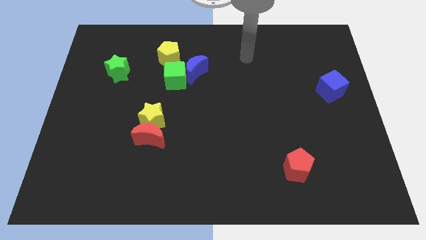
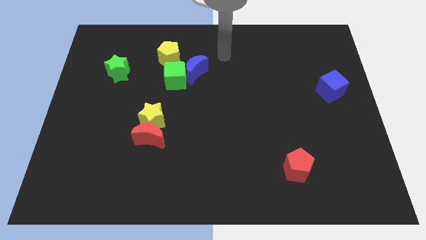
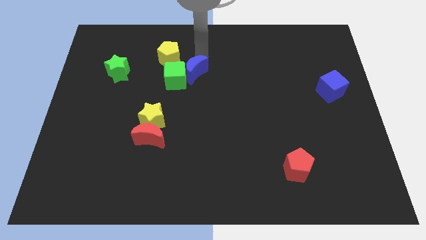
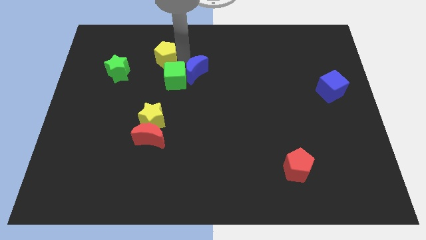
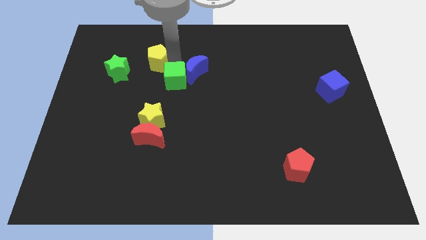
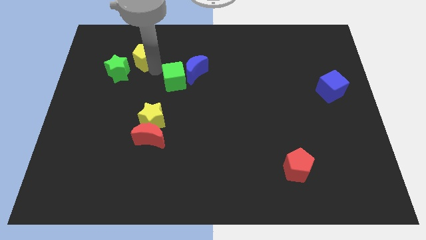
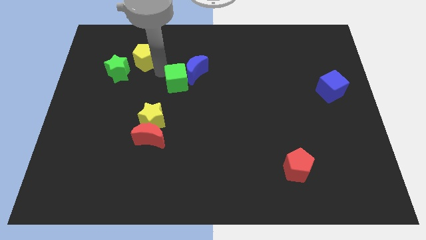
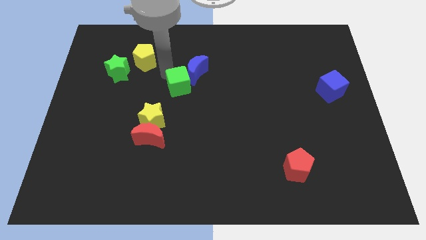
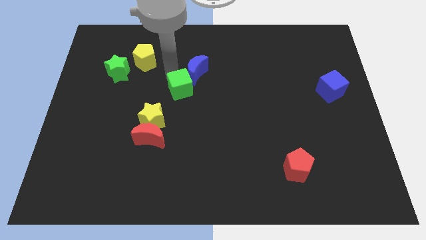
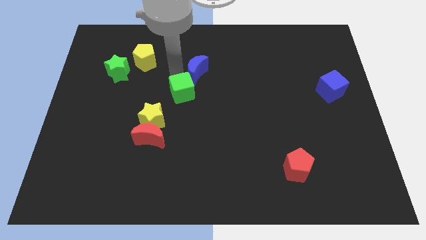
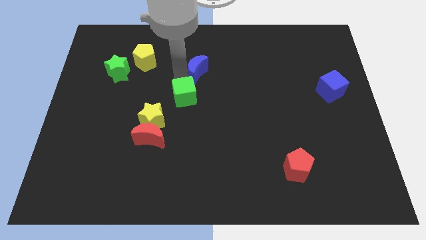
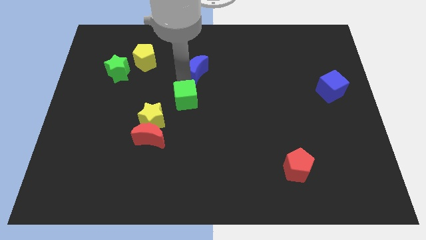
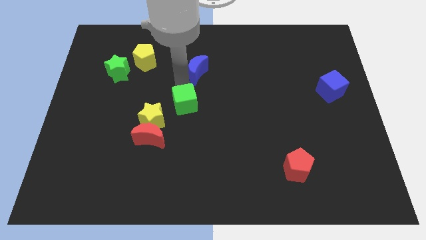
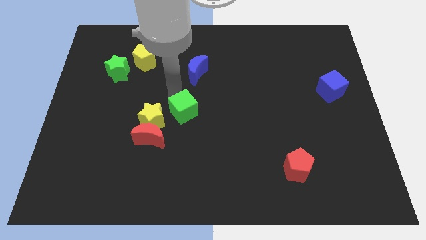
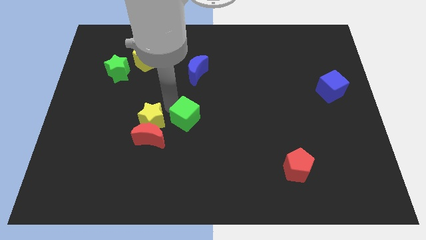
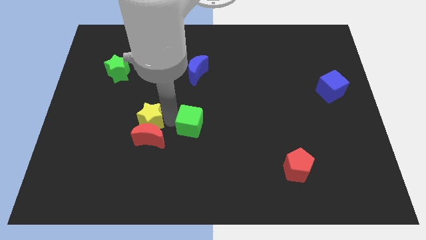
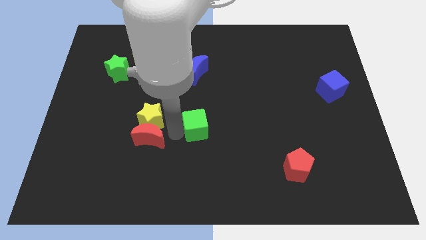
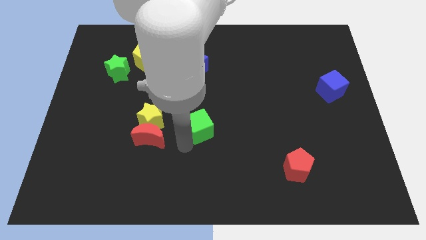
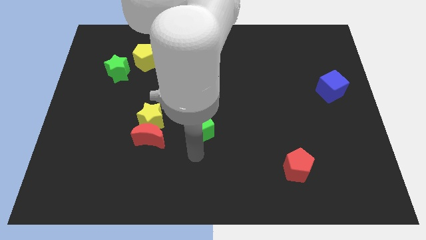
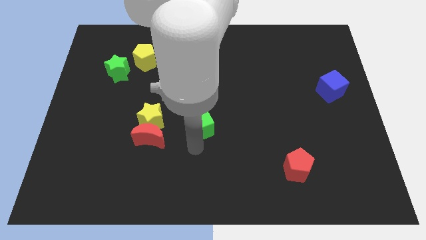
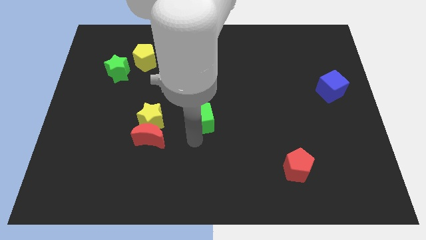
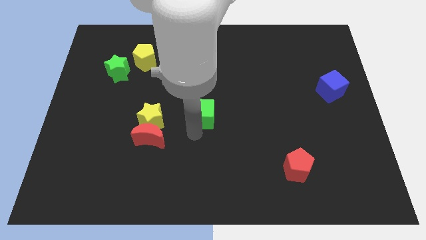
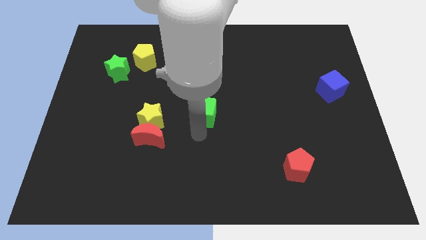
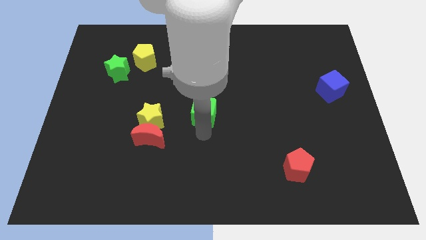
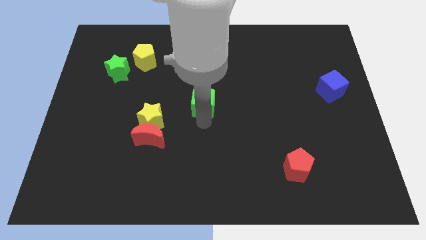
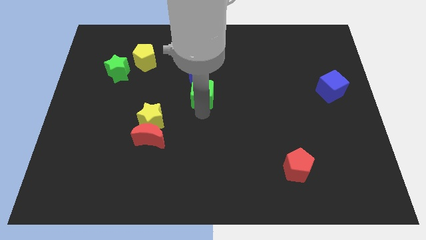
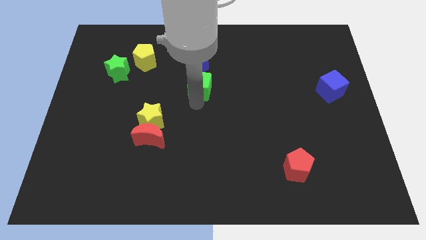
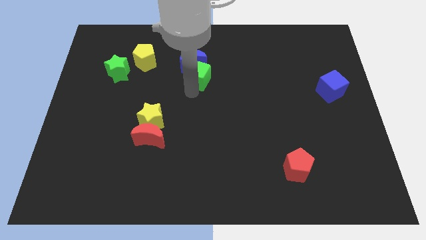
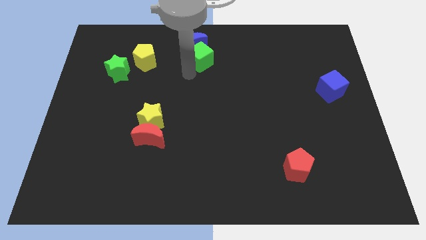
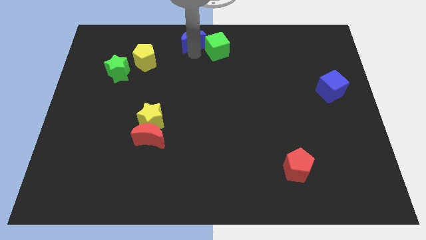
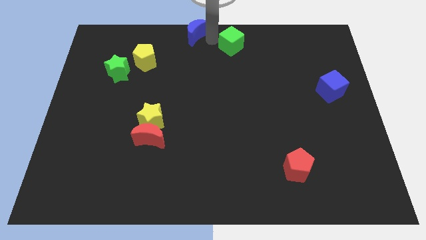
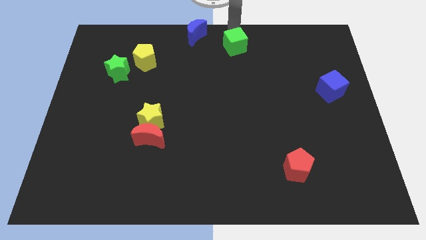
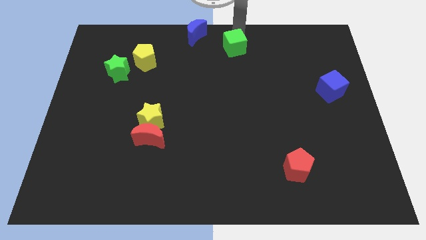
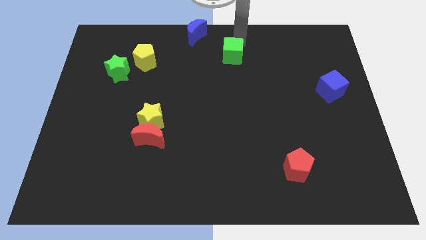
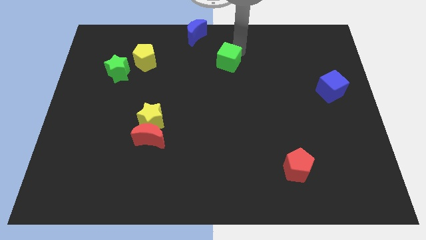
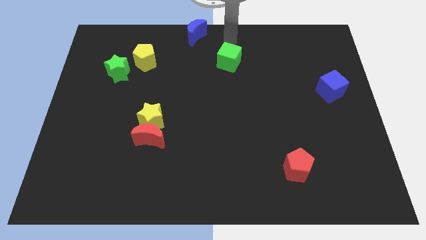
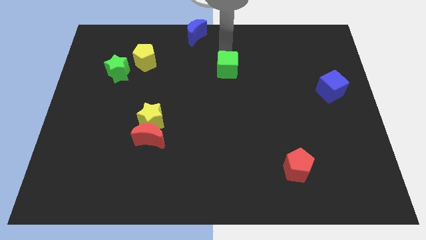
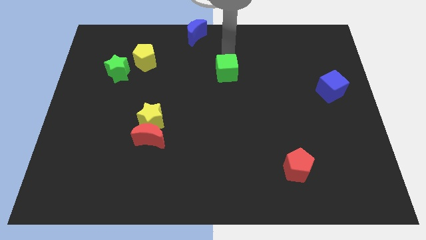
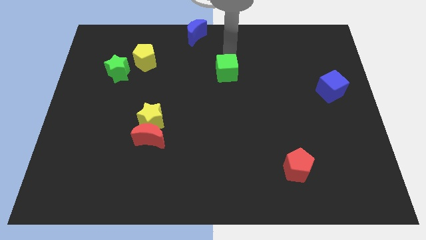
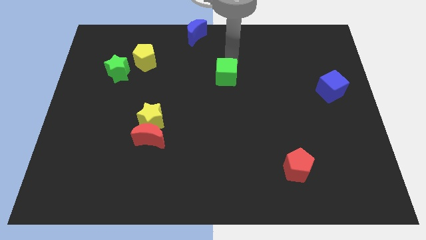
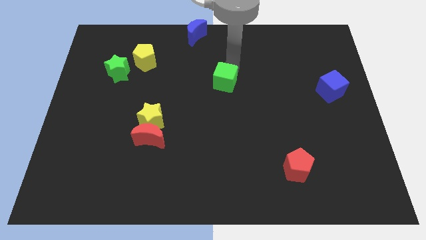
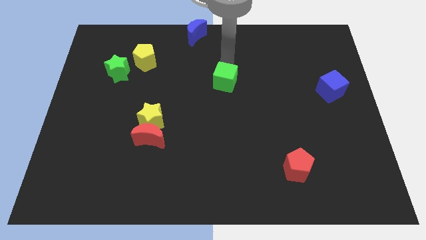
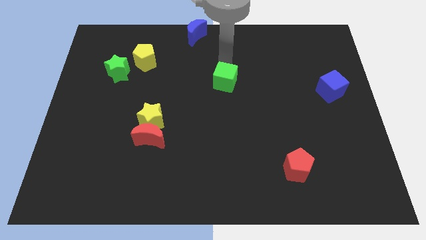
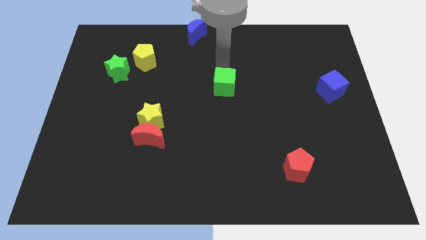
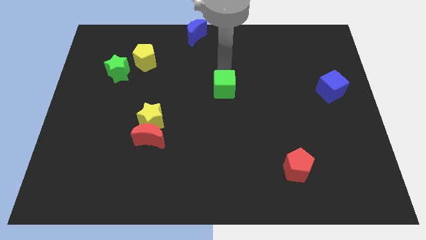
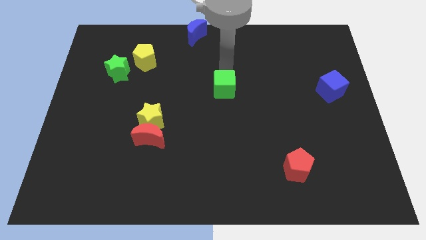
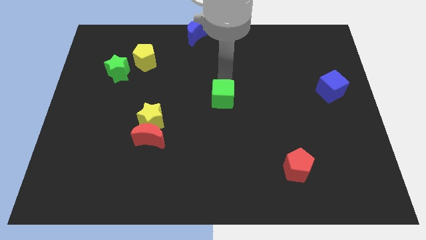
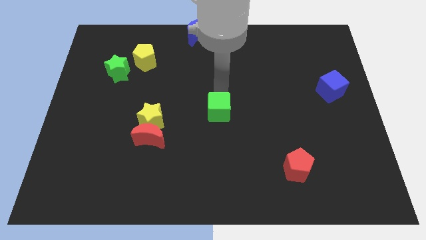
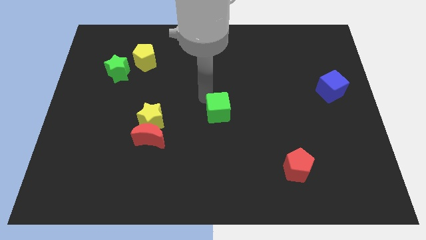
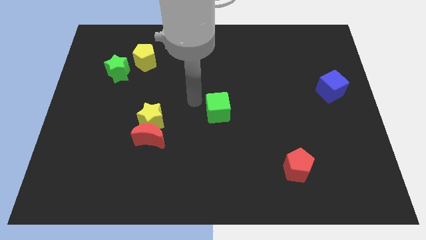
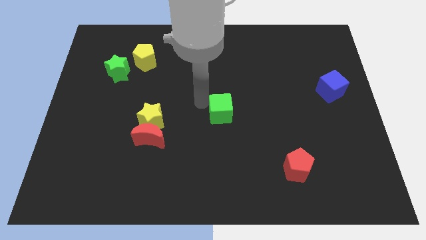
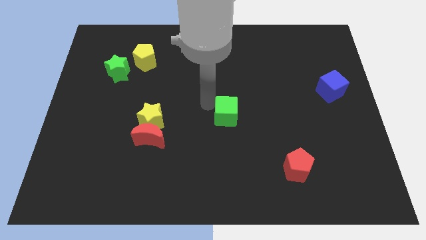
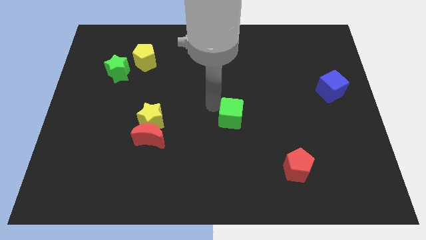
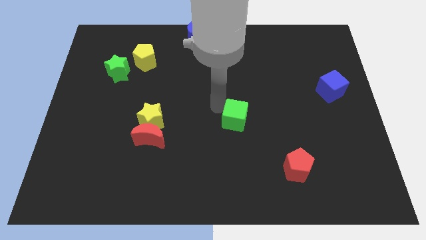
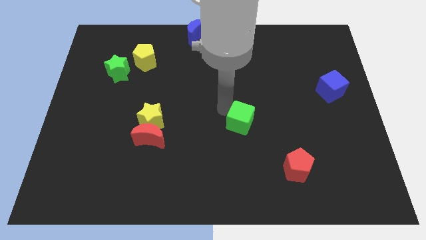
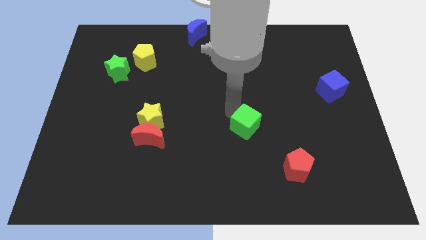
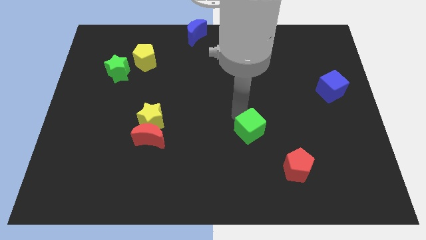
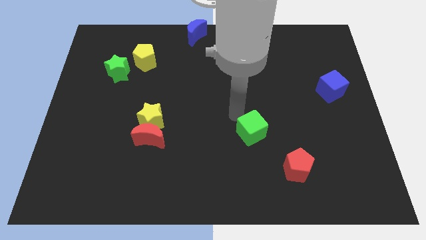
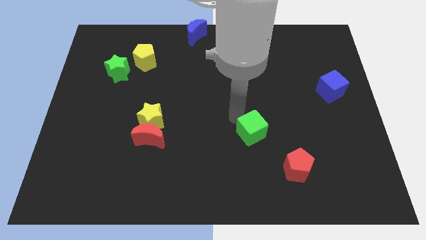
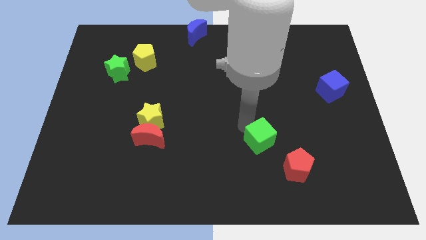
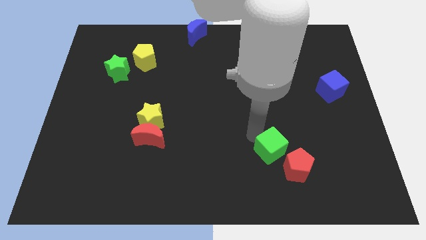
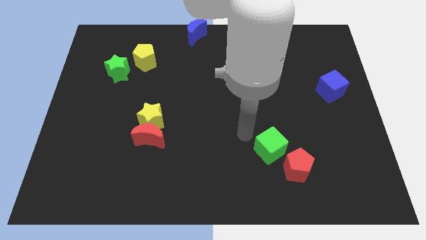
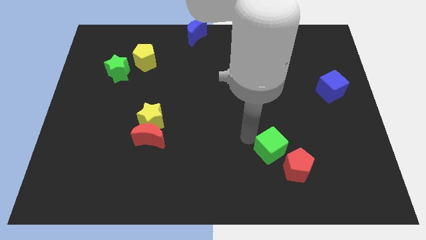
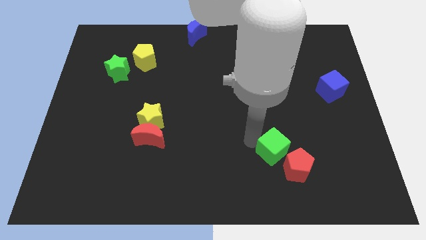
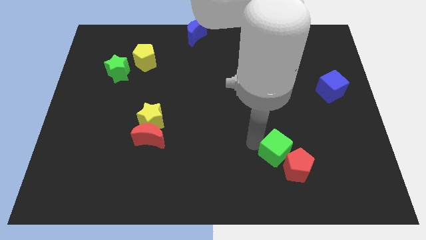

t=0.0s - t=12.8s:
push the green cube to the red pentagon
